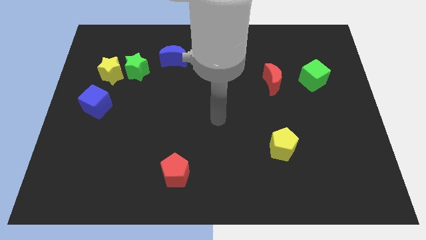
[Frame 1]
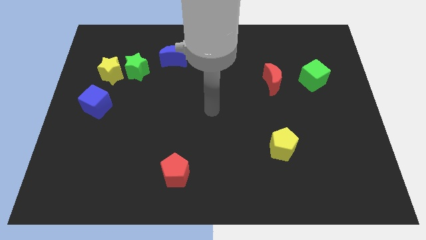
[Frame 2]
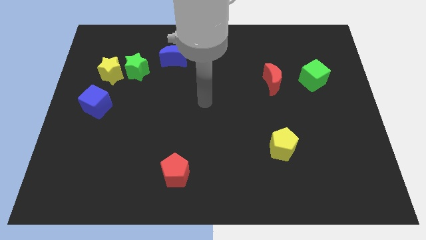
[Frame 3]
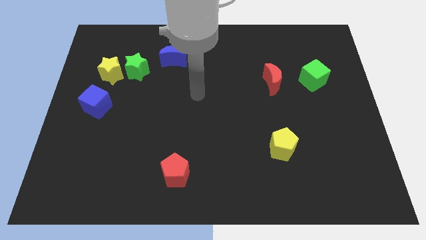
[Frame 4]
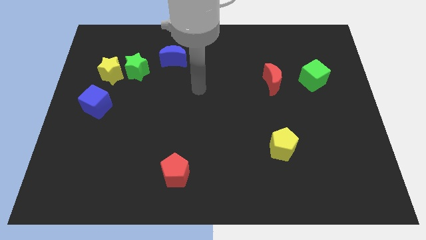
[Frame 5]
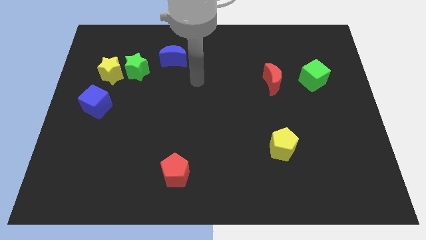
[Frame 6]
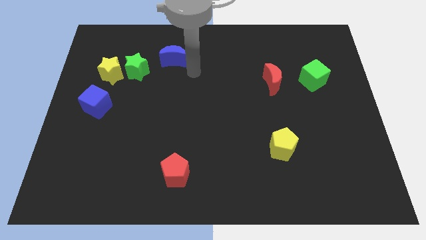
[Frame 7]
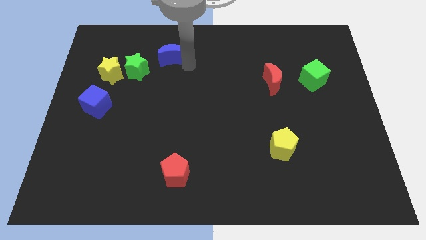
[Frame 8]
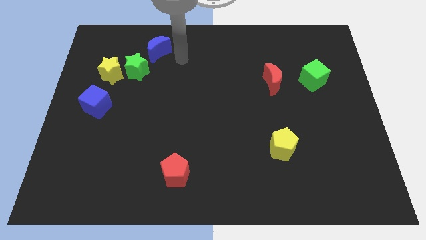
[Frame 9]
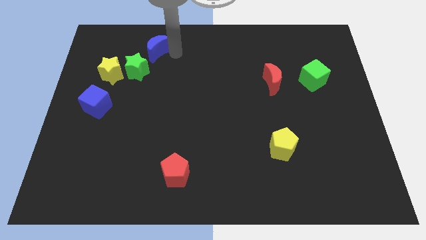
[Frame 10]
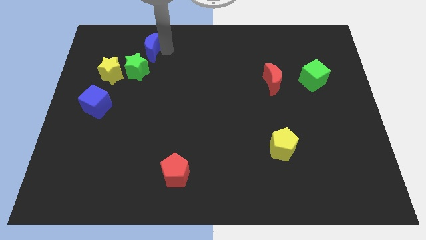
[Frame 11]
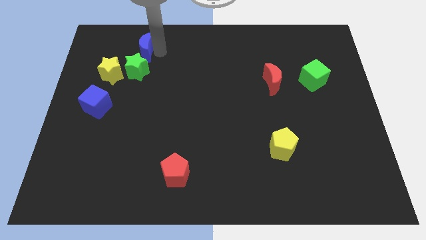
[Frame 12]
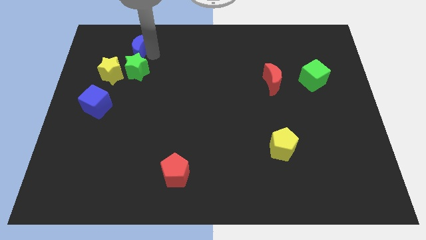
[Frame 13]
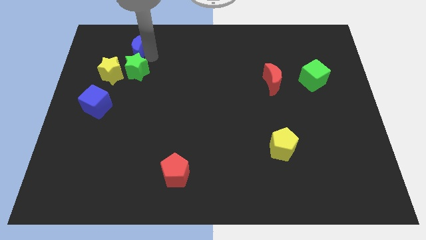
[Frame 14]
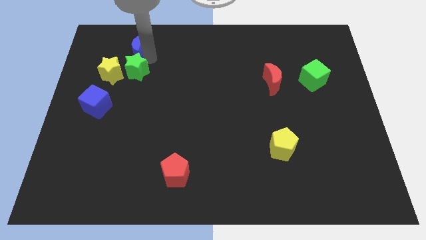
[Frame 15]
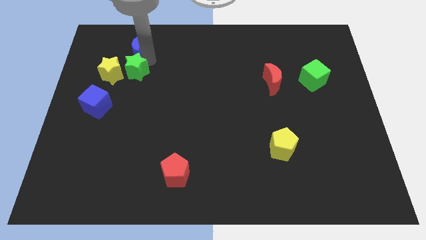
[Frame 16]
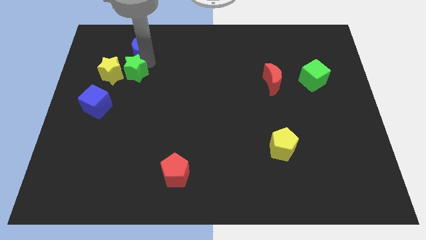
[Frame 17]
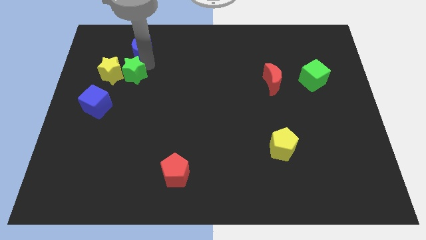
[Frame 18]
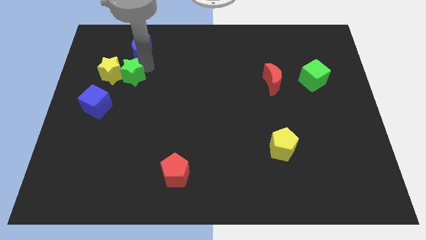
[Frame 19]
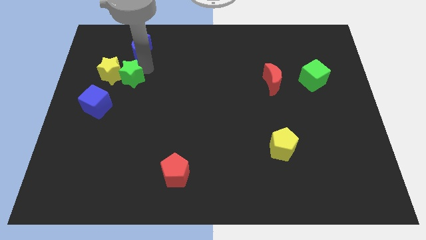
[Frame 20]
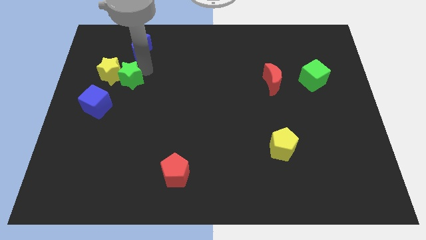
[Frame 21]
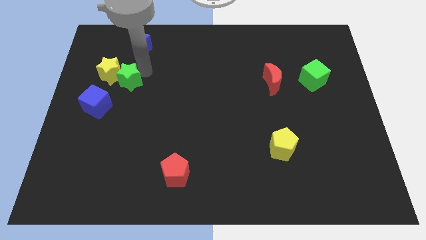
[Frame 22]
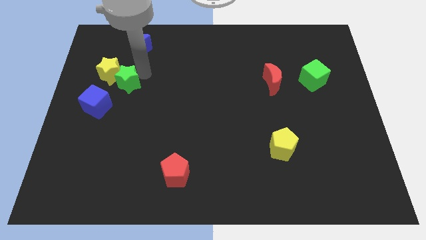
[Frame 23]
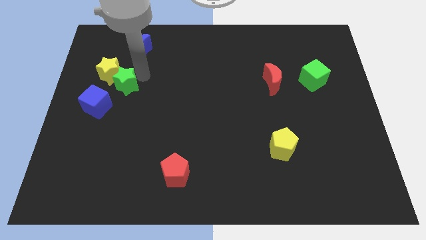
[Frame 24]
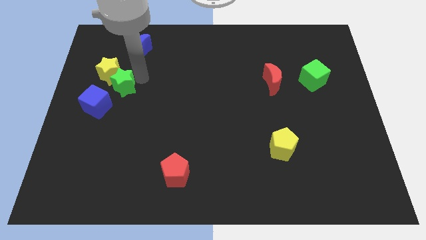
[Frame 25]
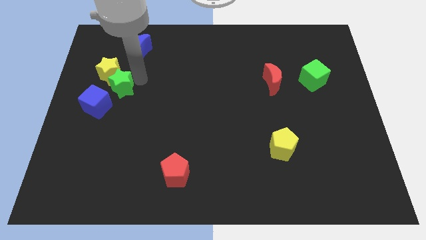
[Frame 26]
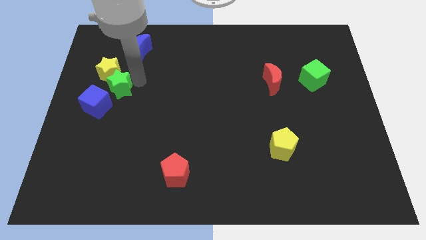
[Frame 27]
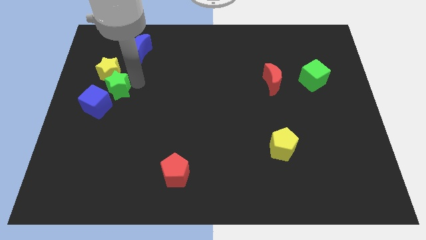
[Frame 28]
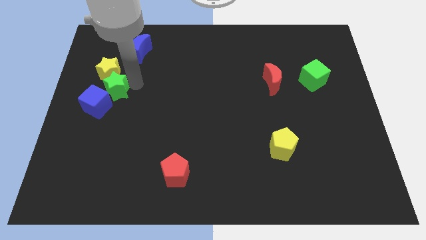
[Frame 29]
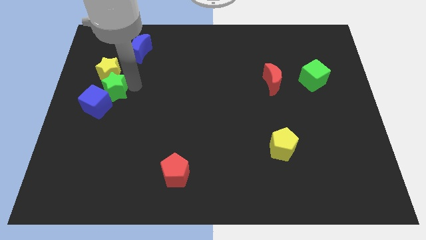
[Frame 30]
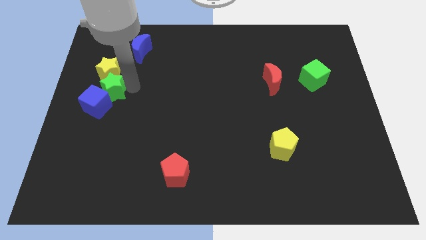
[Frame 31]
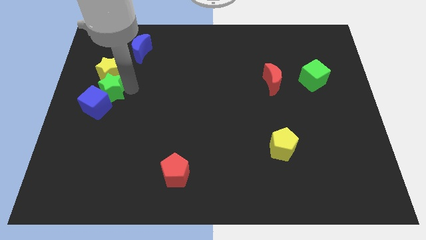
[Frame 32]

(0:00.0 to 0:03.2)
pull the green star apart from the yellow star and blue moon

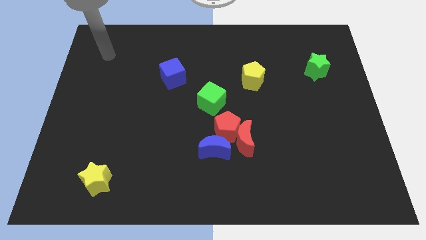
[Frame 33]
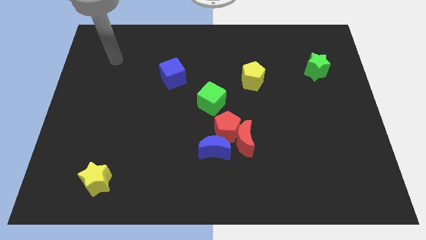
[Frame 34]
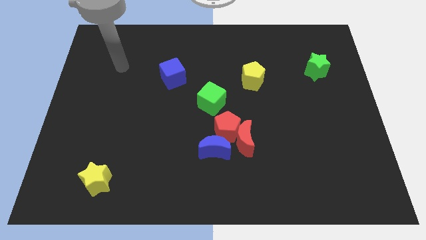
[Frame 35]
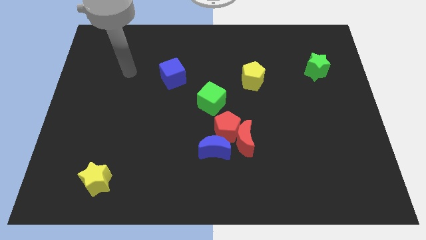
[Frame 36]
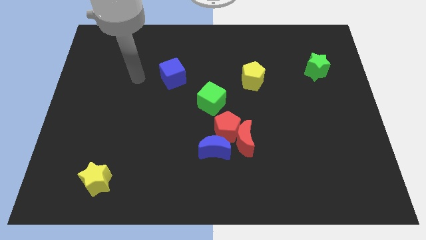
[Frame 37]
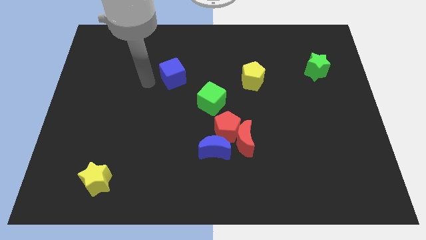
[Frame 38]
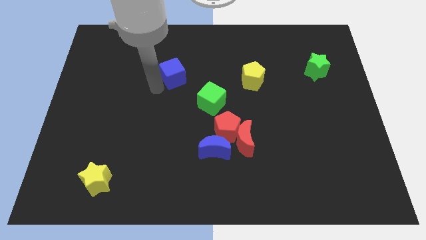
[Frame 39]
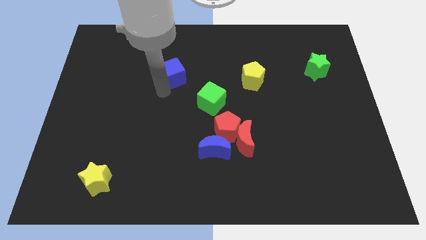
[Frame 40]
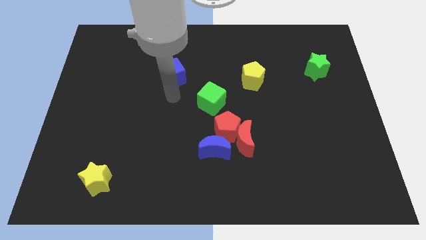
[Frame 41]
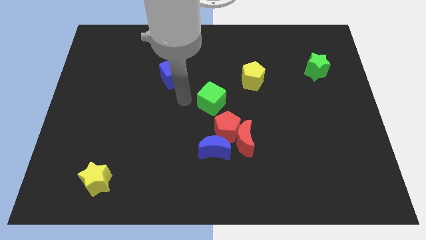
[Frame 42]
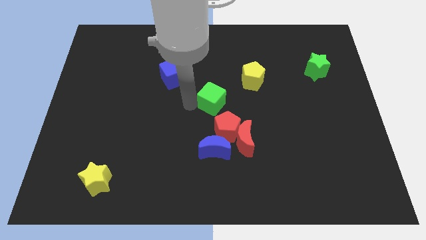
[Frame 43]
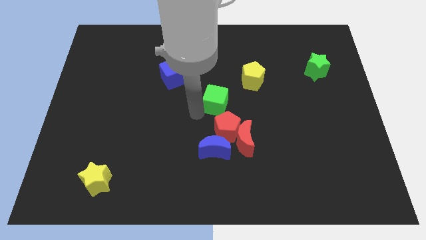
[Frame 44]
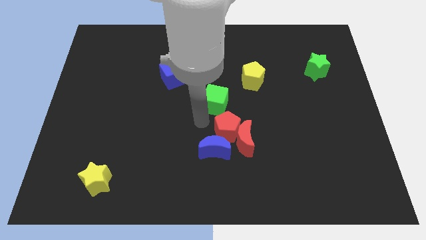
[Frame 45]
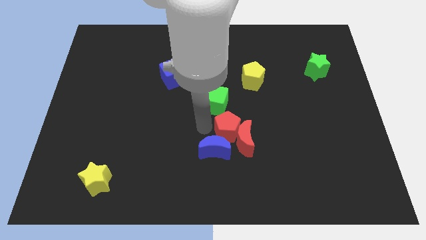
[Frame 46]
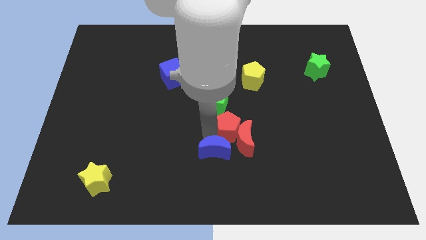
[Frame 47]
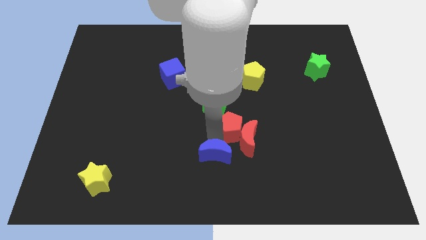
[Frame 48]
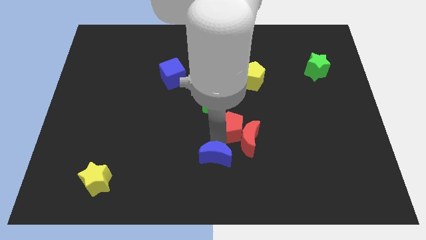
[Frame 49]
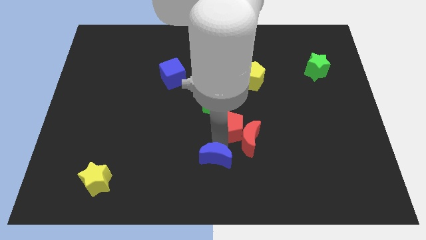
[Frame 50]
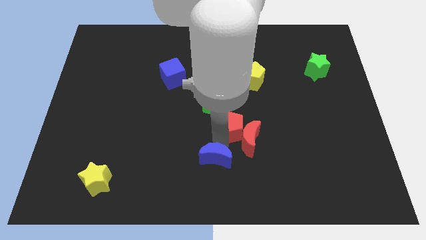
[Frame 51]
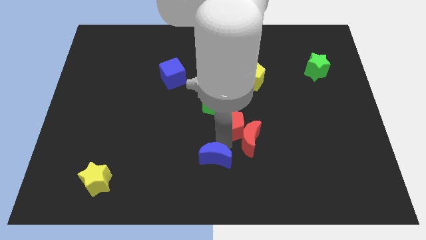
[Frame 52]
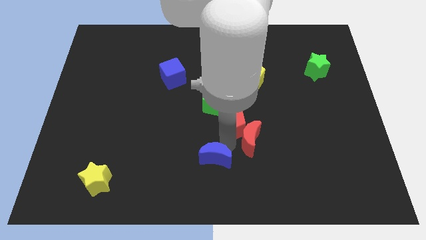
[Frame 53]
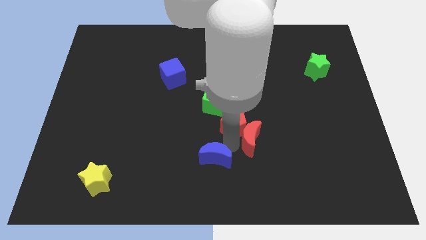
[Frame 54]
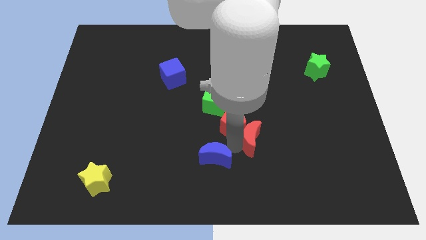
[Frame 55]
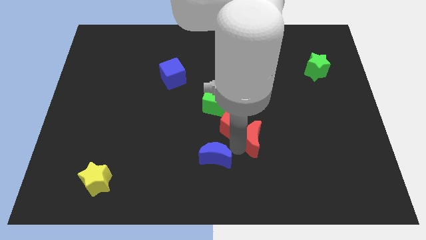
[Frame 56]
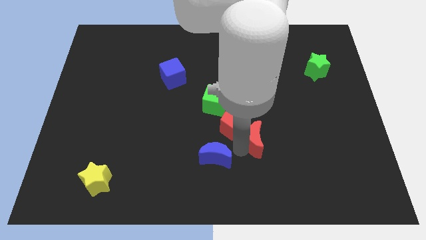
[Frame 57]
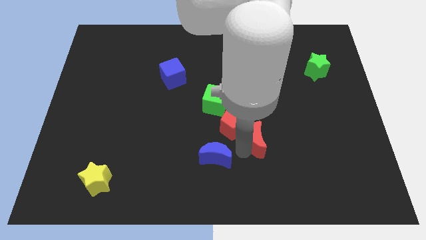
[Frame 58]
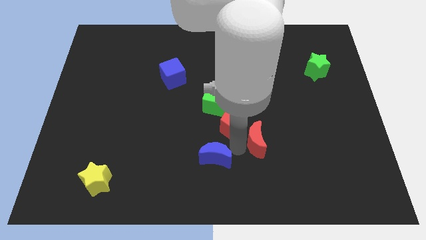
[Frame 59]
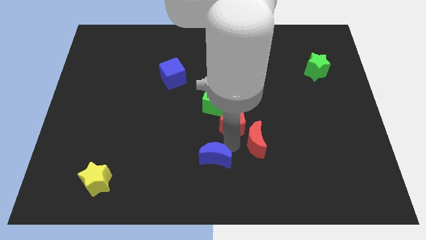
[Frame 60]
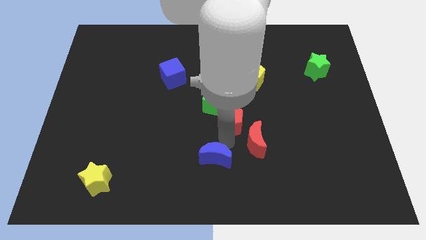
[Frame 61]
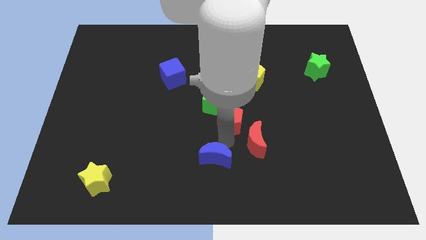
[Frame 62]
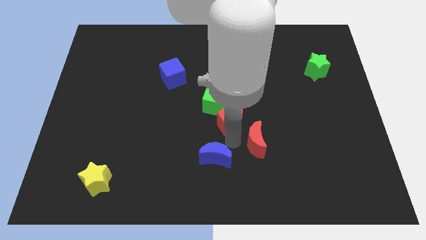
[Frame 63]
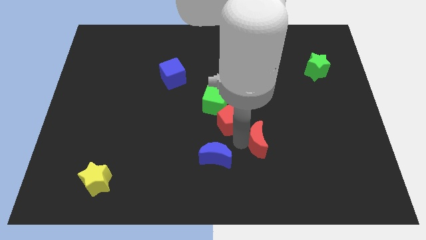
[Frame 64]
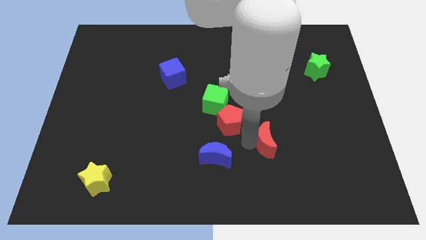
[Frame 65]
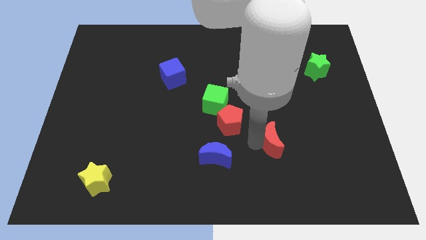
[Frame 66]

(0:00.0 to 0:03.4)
move the red moon away from the red pentagon and blue moon

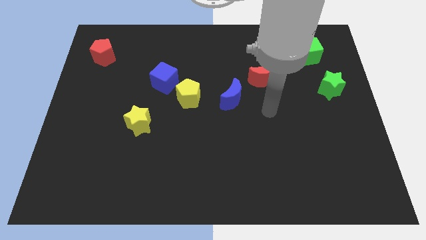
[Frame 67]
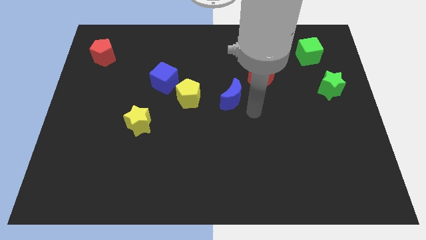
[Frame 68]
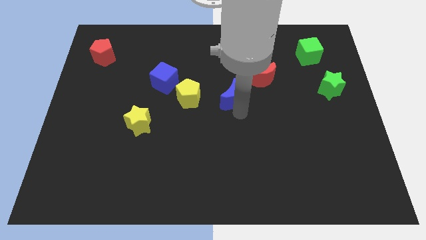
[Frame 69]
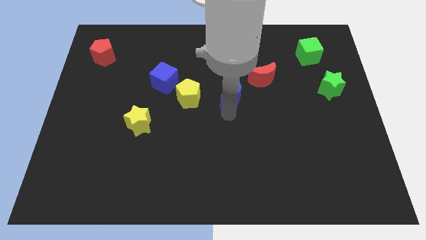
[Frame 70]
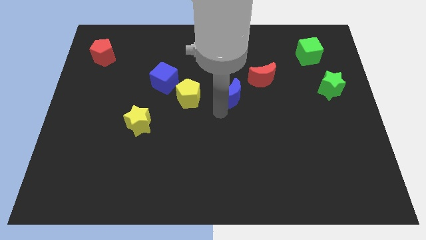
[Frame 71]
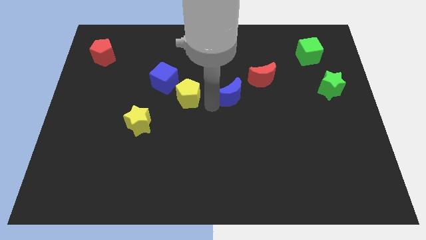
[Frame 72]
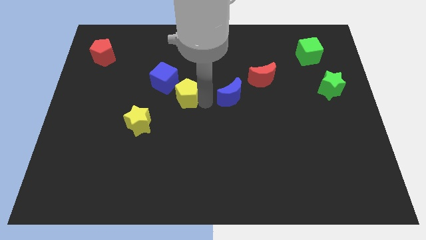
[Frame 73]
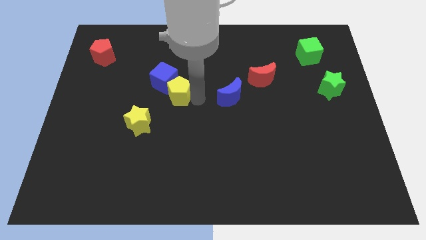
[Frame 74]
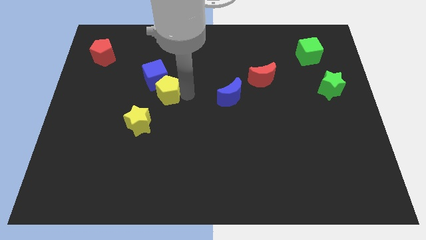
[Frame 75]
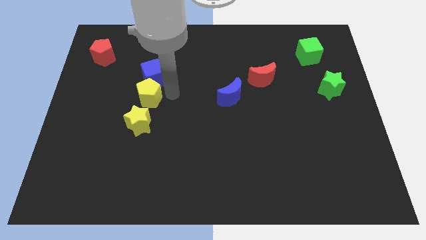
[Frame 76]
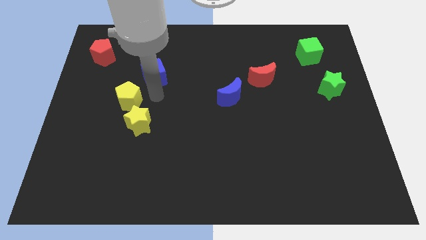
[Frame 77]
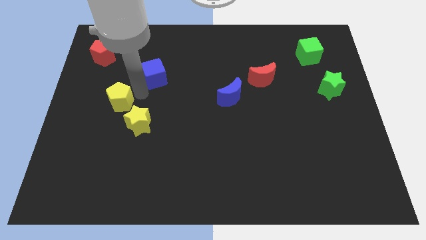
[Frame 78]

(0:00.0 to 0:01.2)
move the blue cube away from the yellow pentagon

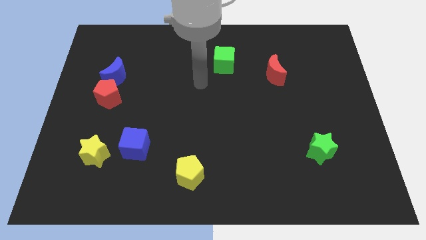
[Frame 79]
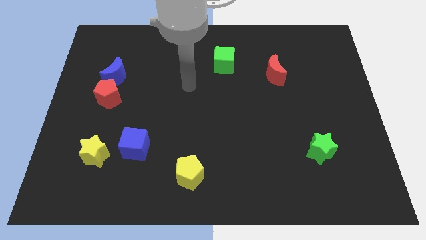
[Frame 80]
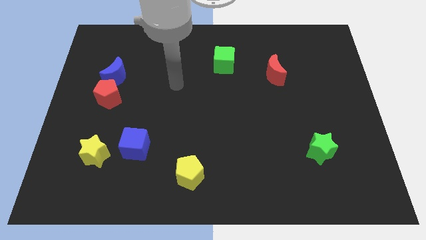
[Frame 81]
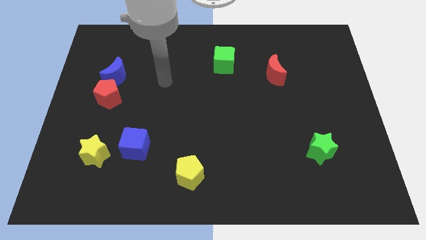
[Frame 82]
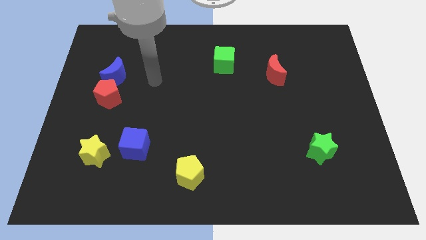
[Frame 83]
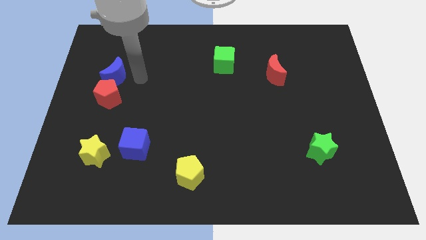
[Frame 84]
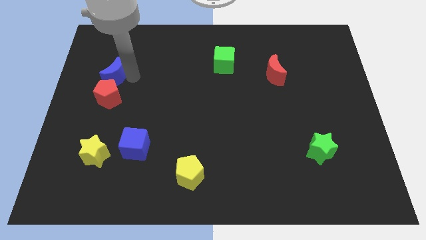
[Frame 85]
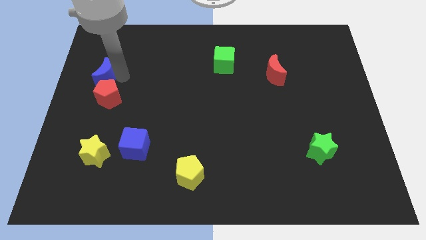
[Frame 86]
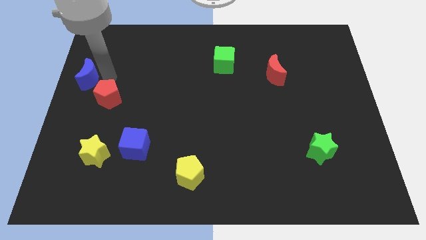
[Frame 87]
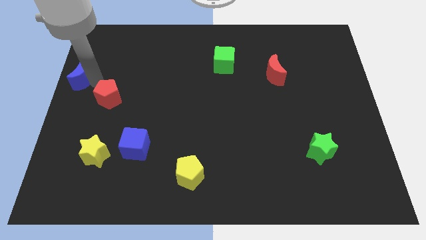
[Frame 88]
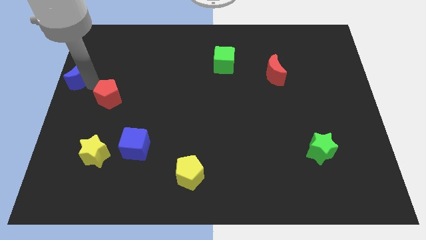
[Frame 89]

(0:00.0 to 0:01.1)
move the red pentagon away from the blue moon

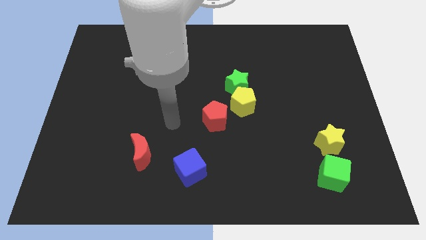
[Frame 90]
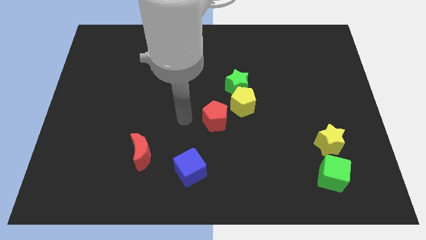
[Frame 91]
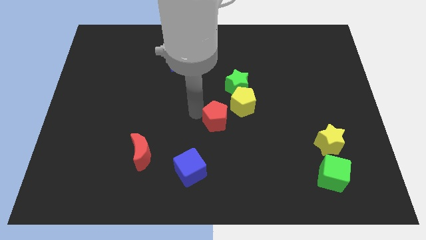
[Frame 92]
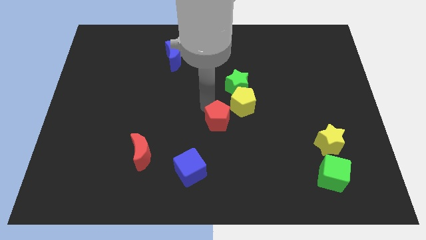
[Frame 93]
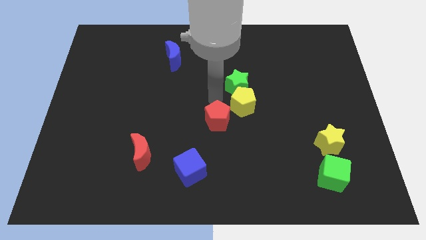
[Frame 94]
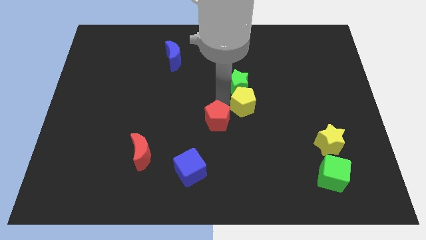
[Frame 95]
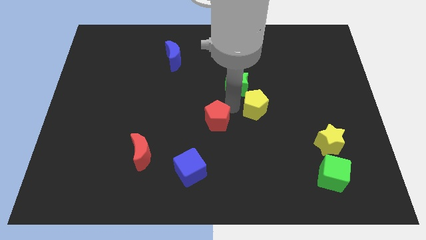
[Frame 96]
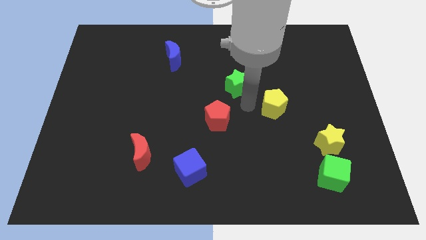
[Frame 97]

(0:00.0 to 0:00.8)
move the green star away from the yellow pentagon
